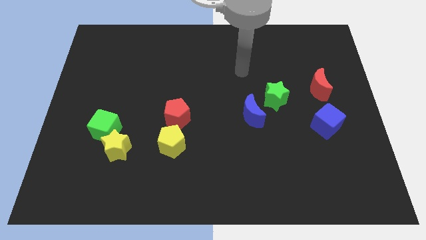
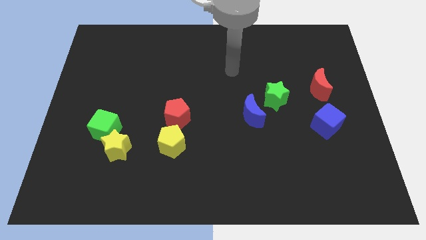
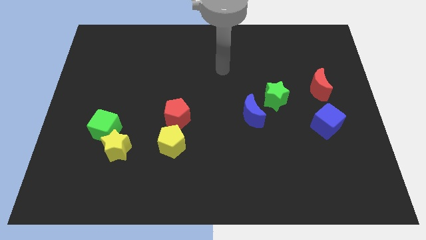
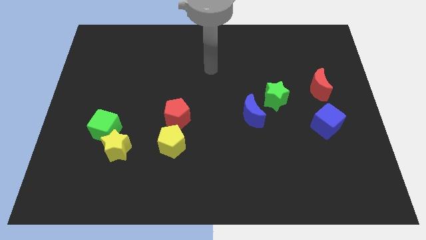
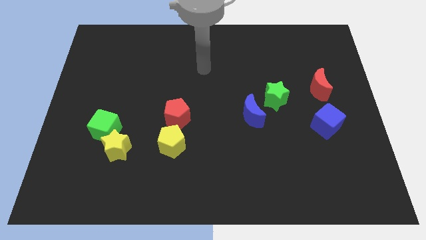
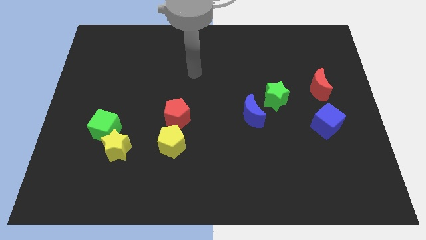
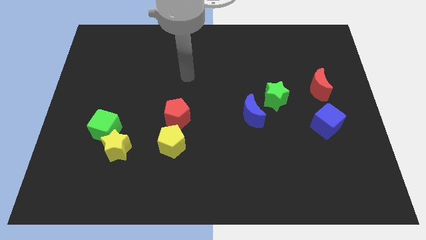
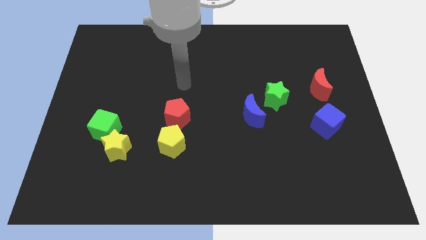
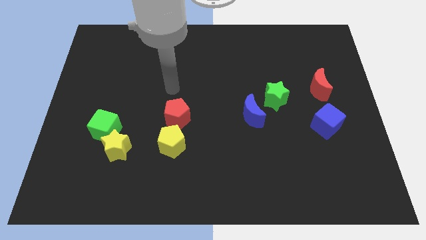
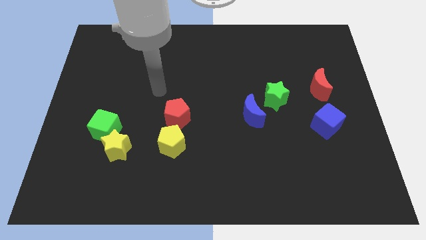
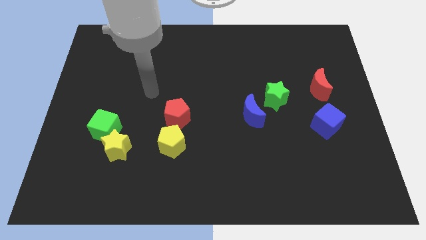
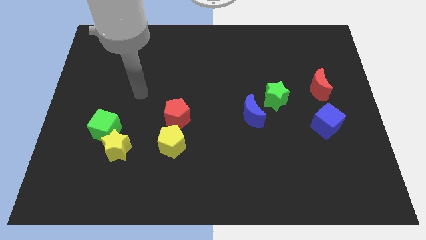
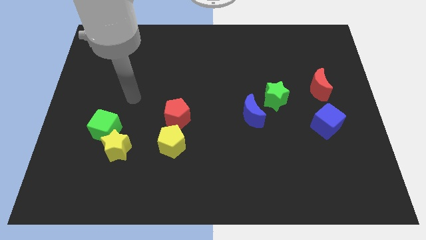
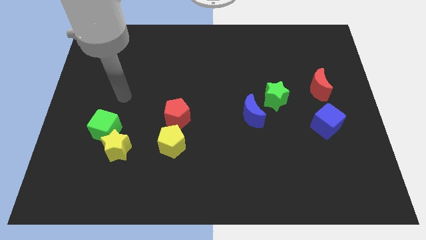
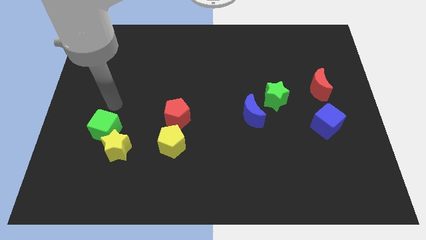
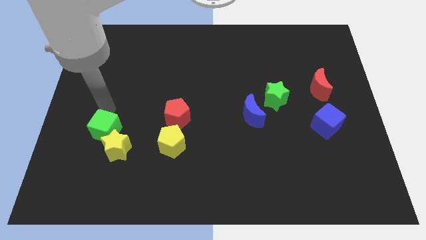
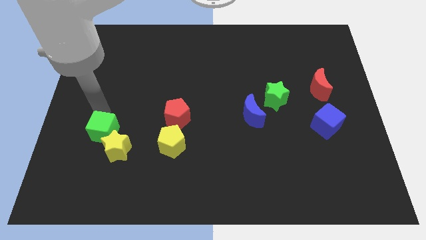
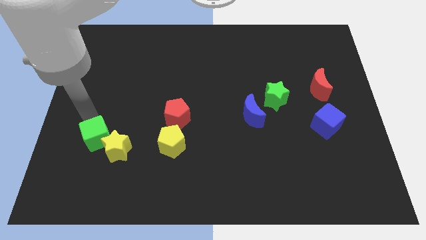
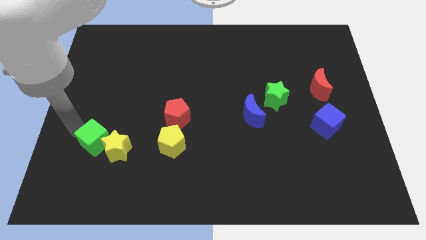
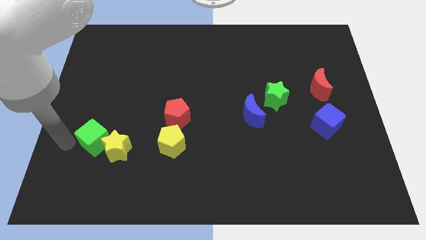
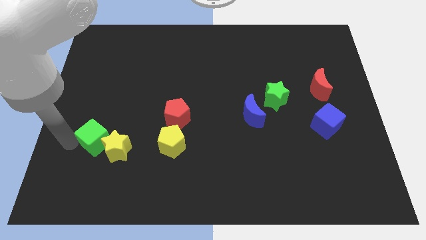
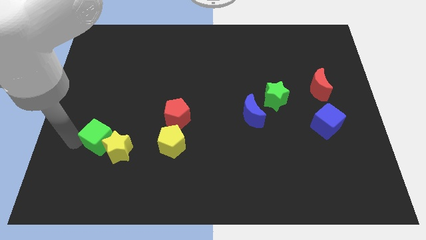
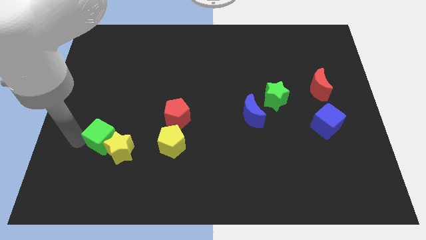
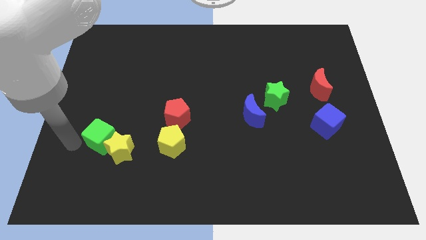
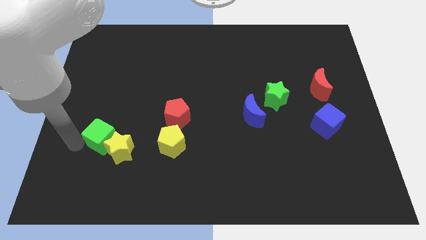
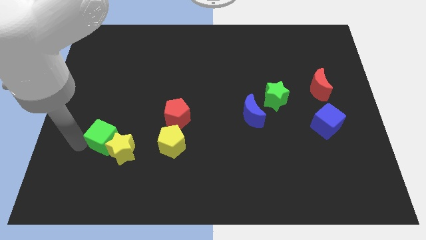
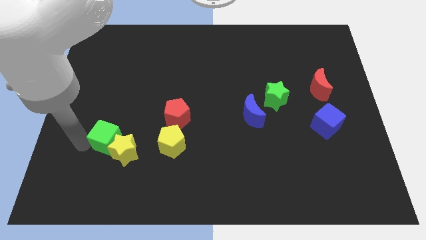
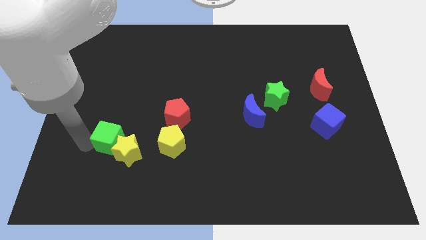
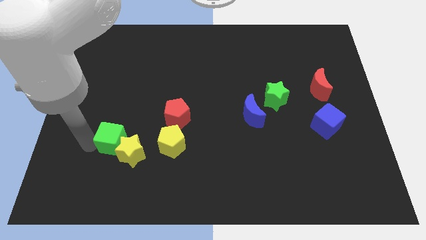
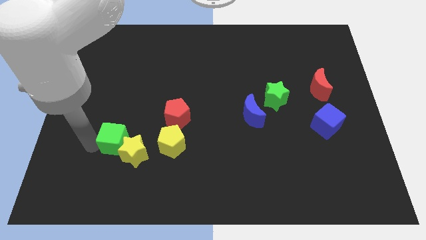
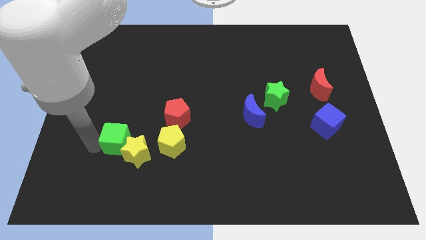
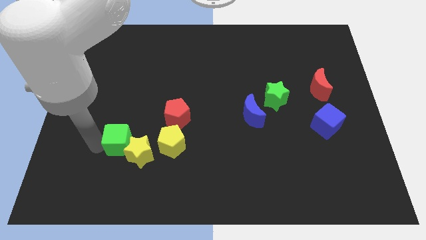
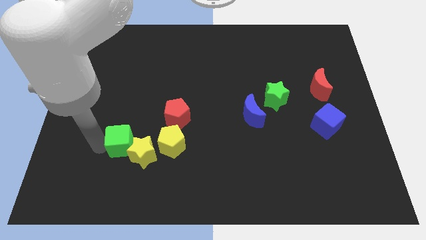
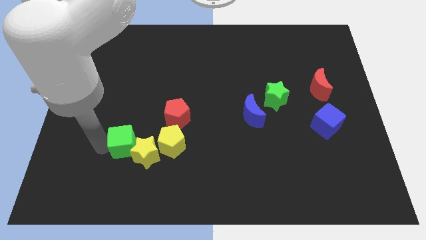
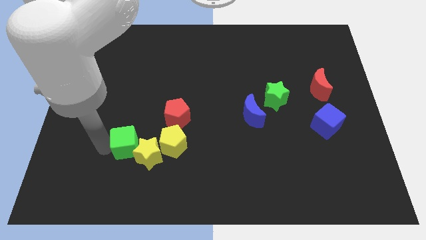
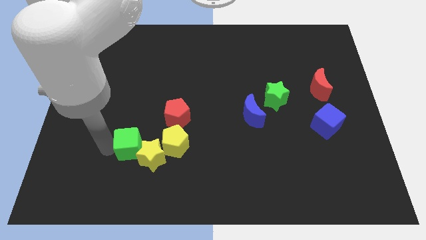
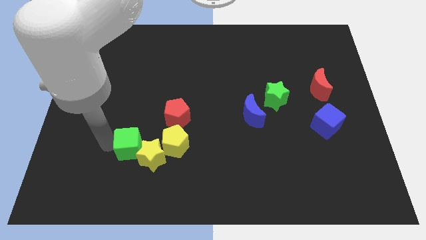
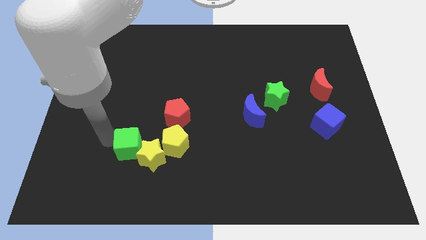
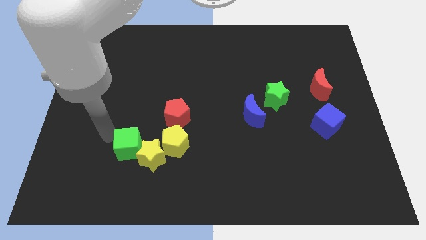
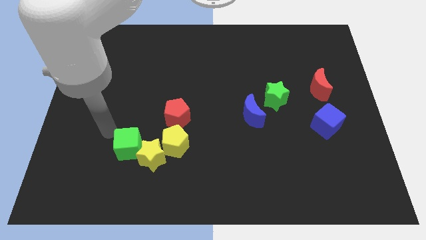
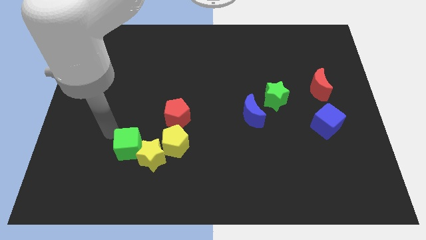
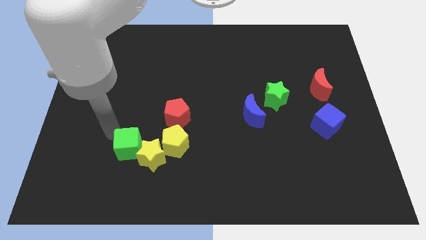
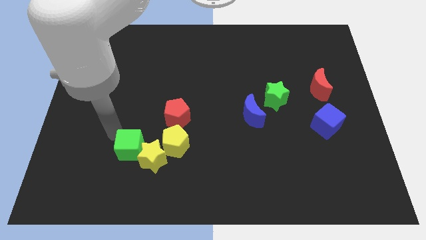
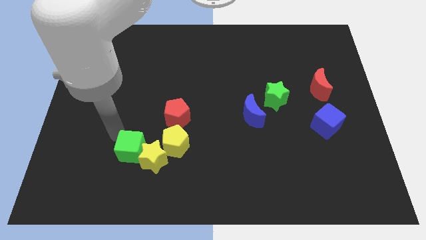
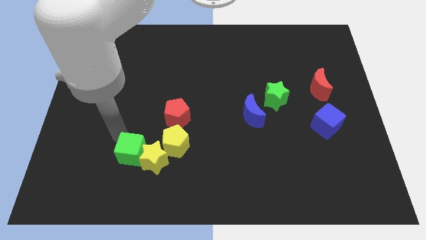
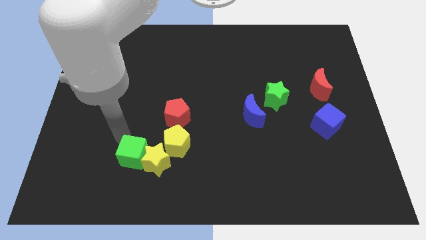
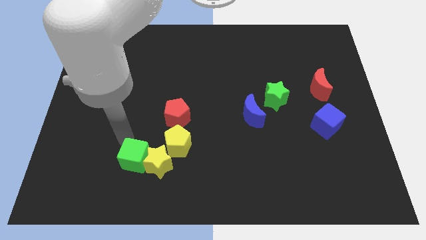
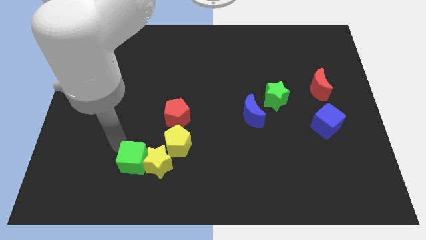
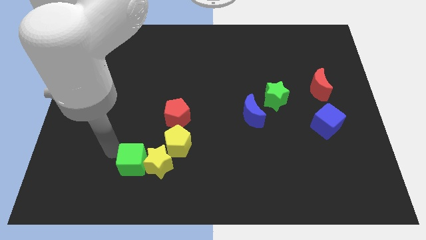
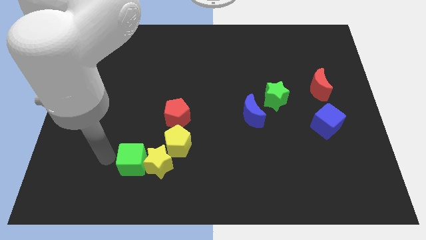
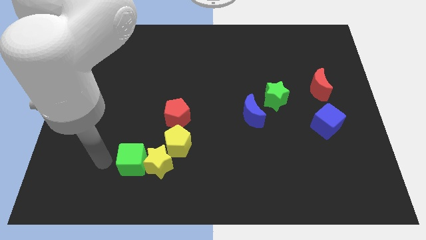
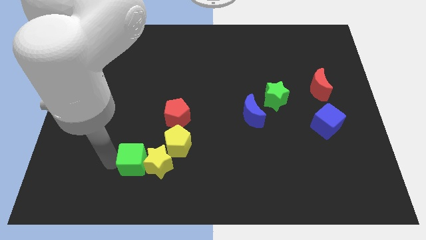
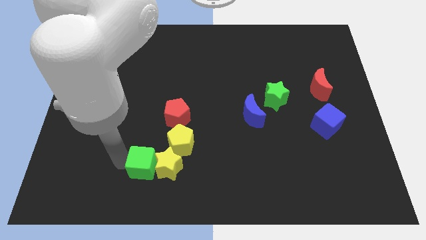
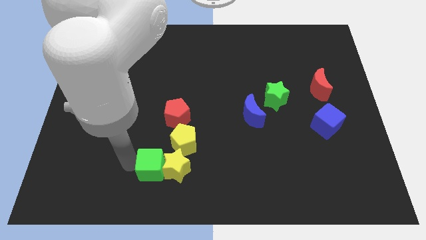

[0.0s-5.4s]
slightly push the green cube to the right

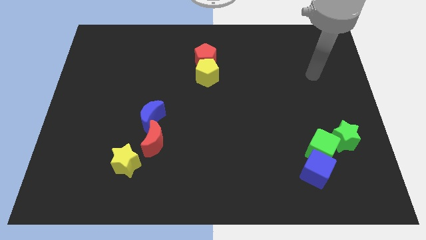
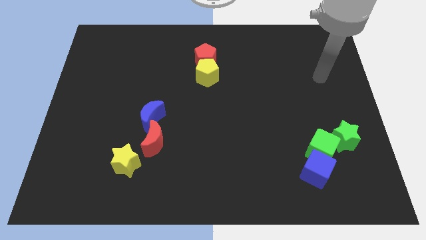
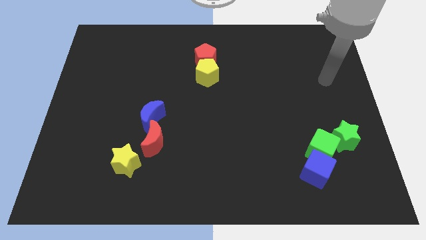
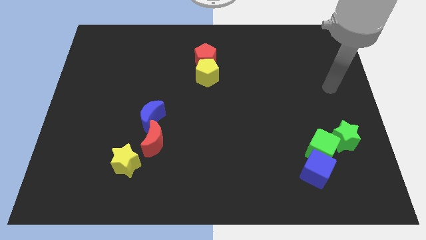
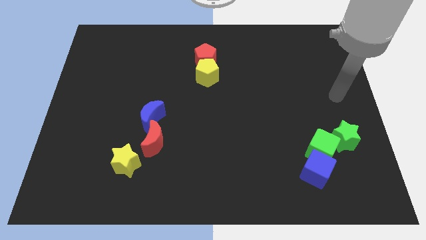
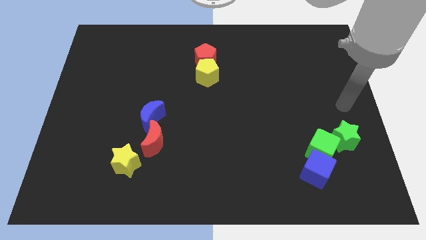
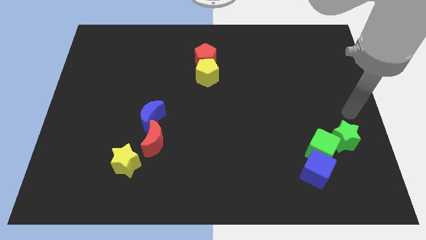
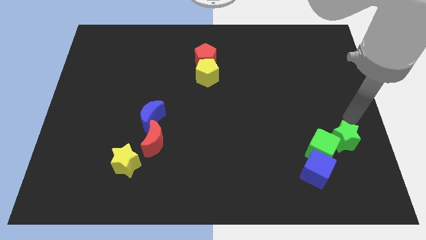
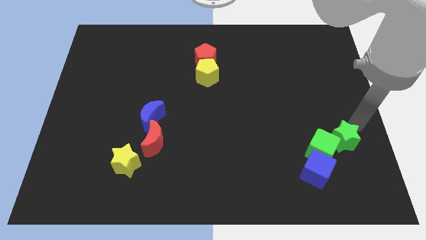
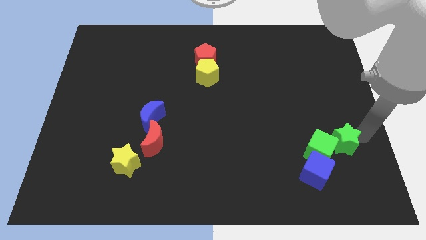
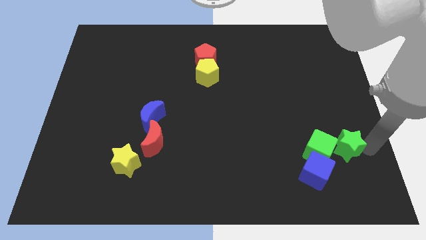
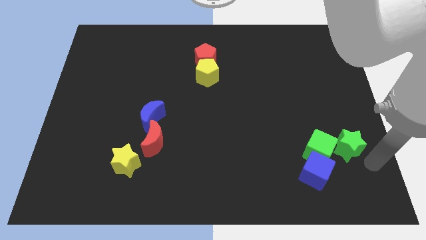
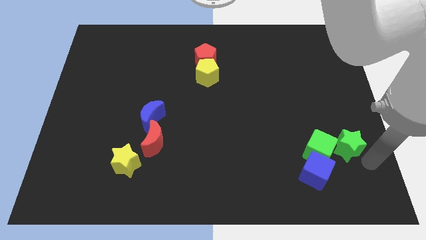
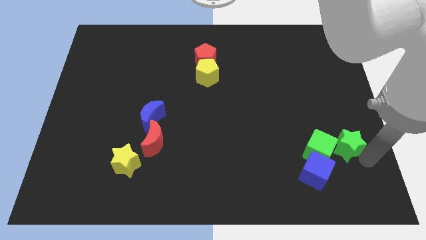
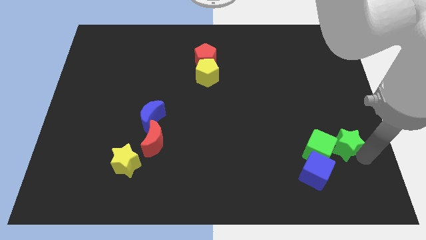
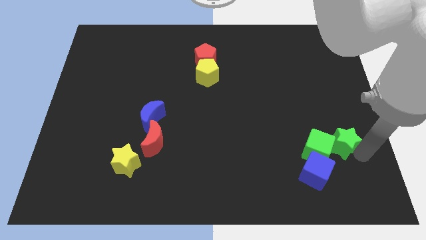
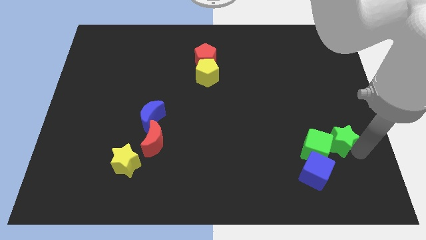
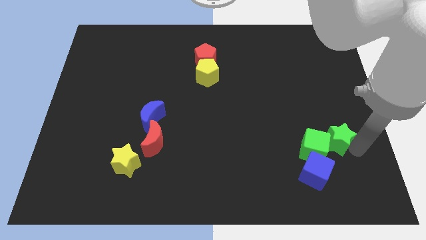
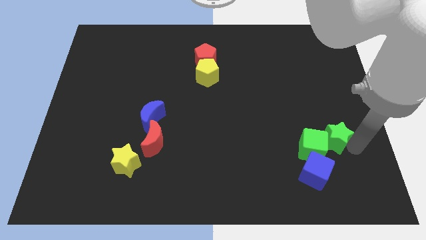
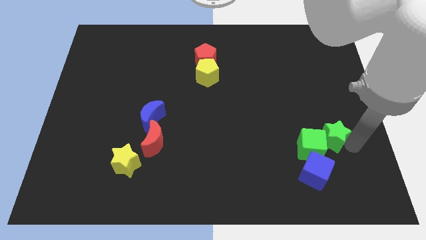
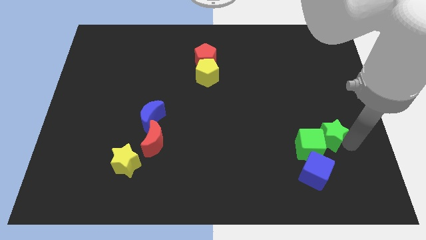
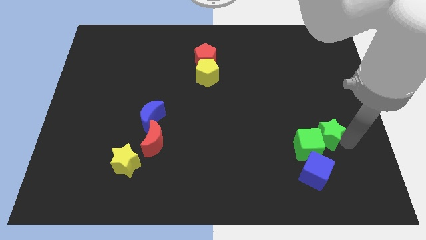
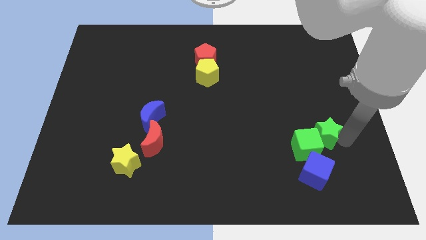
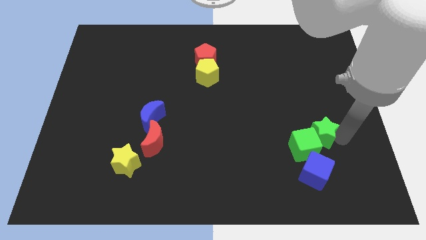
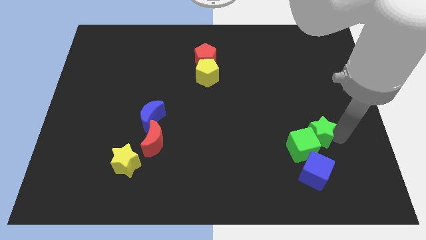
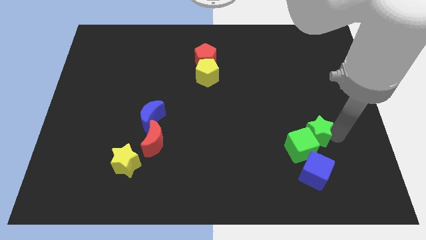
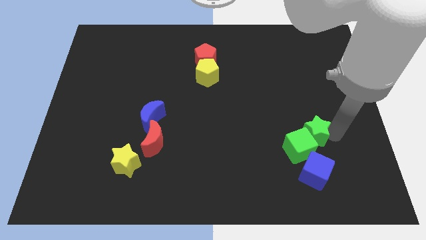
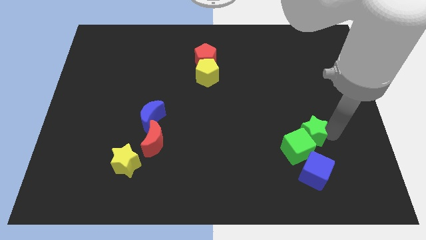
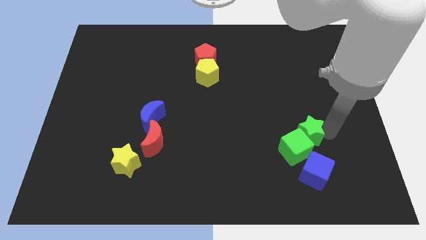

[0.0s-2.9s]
push the green star a little bit left
